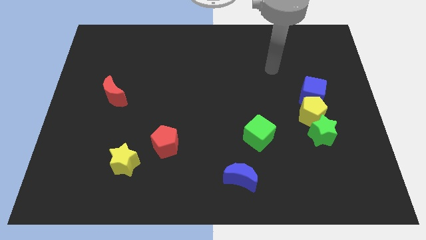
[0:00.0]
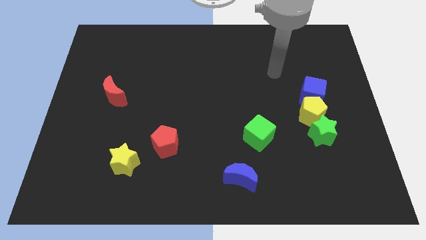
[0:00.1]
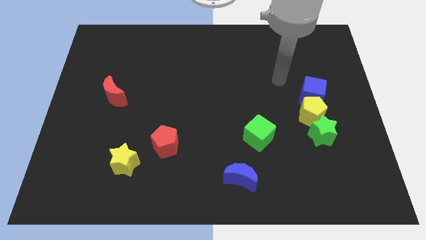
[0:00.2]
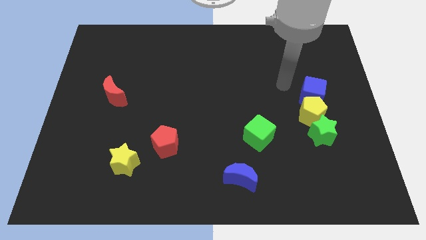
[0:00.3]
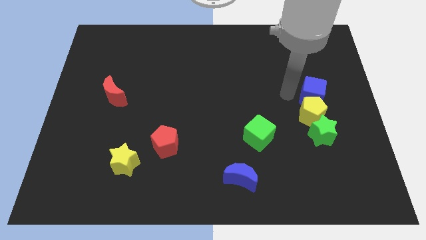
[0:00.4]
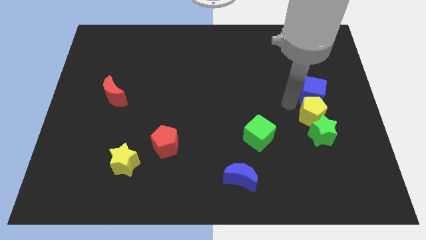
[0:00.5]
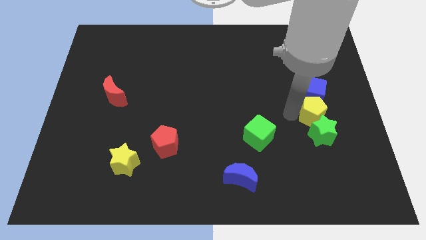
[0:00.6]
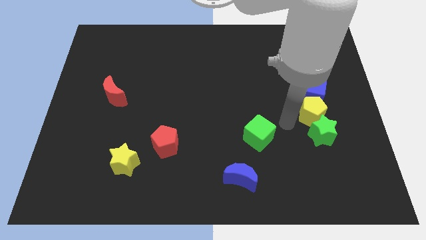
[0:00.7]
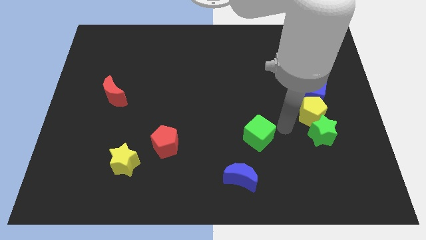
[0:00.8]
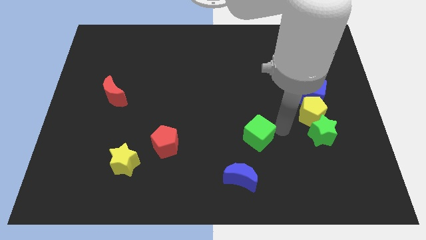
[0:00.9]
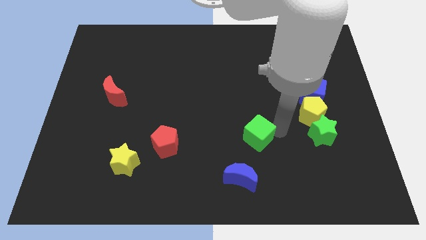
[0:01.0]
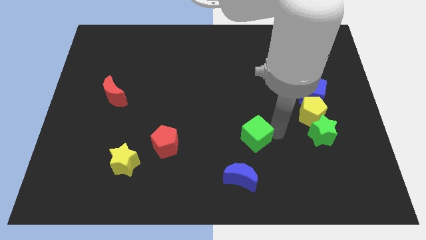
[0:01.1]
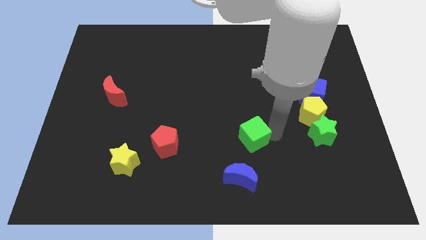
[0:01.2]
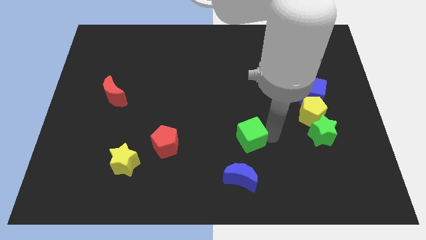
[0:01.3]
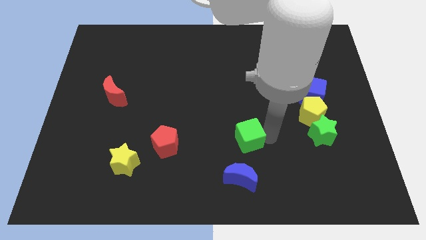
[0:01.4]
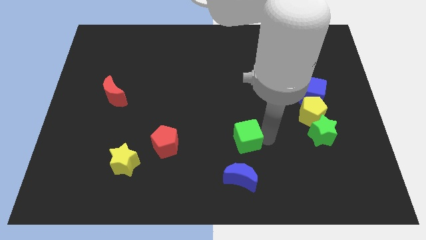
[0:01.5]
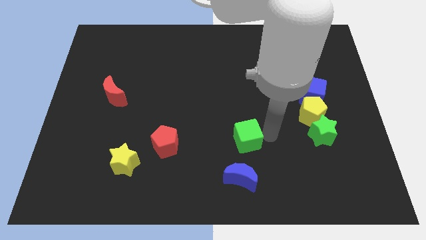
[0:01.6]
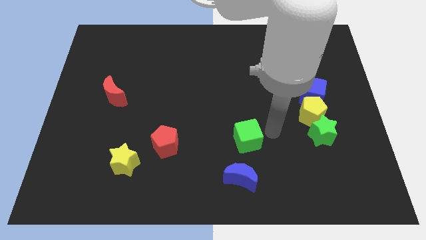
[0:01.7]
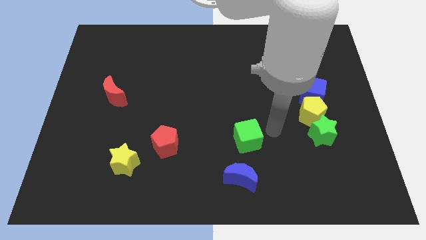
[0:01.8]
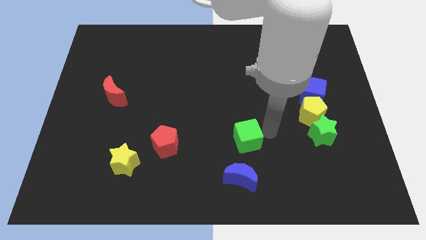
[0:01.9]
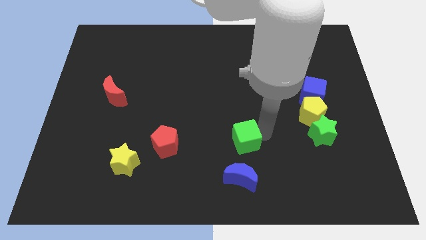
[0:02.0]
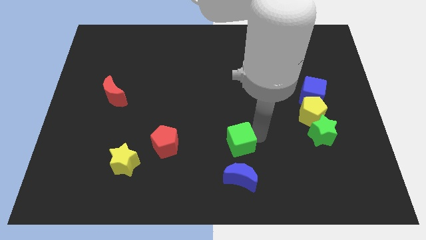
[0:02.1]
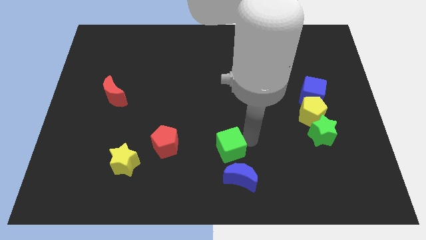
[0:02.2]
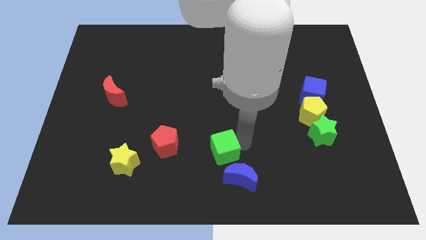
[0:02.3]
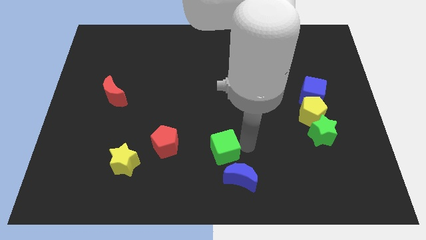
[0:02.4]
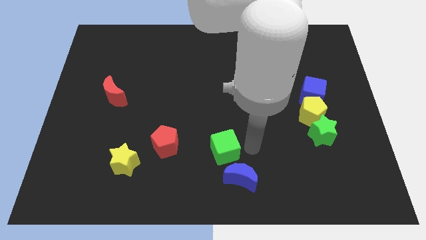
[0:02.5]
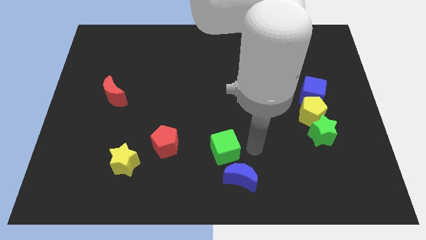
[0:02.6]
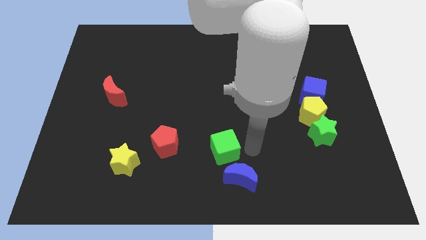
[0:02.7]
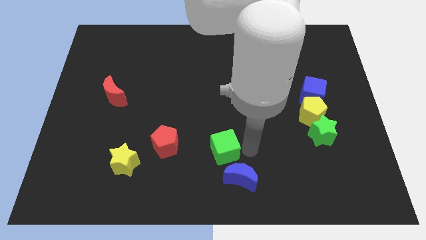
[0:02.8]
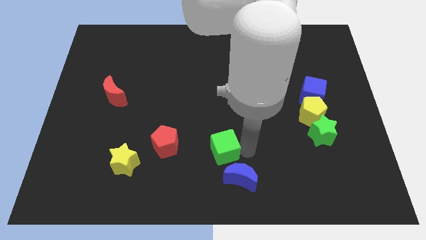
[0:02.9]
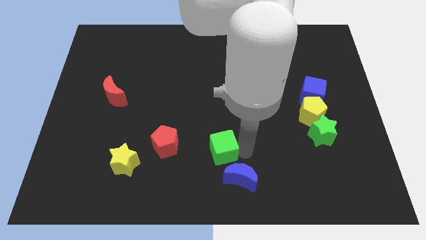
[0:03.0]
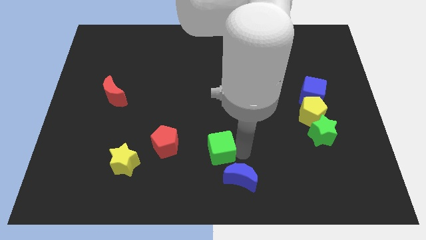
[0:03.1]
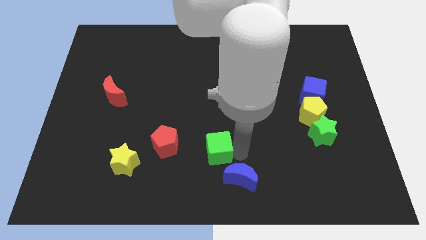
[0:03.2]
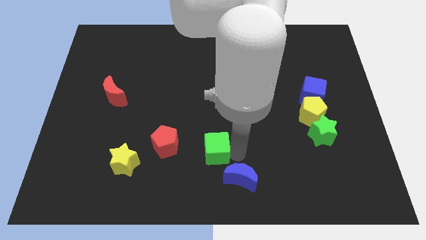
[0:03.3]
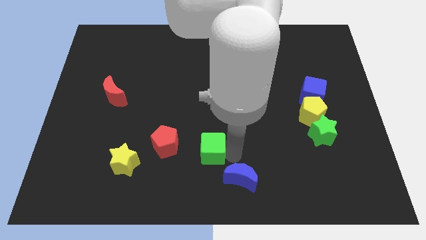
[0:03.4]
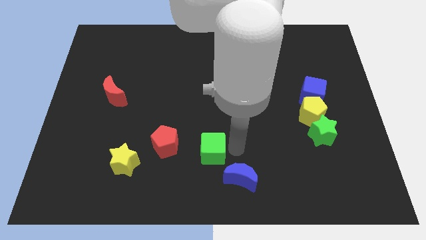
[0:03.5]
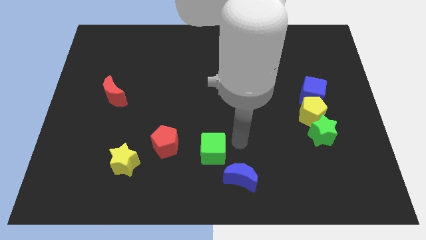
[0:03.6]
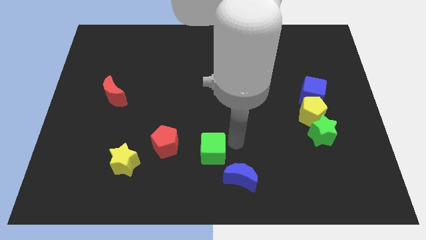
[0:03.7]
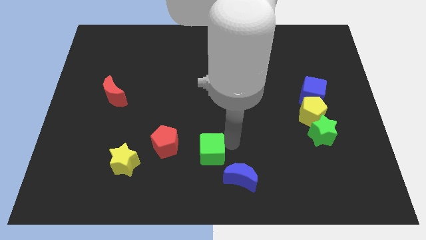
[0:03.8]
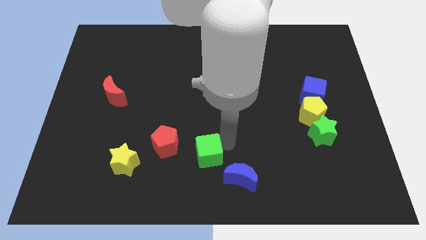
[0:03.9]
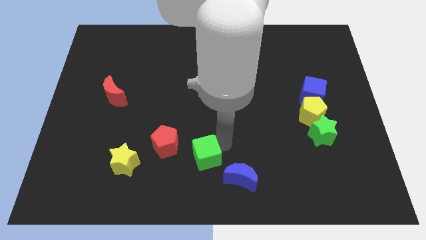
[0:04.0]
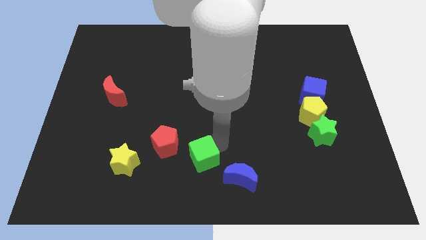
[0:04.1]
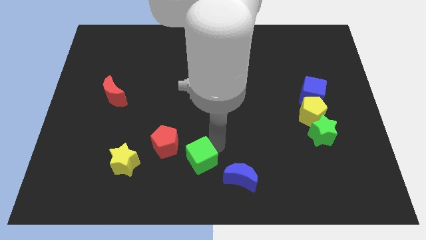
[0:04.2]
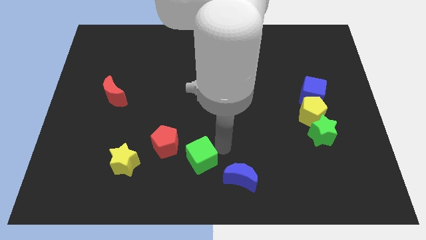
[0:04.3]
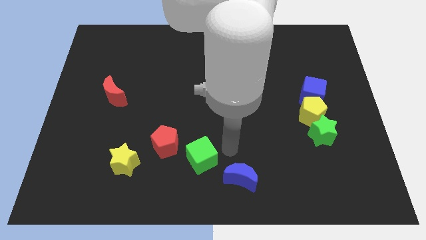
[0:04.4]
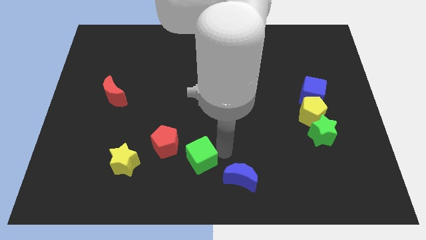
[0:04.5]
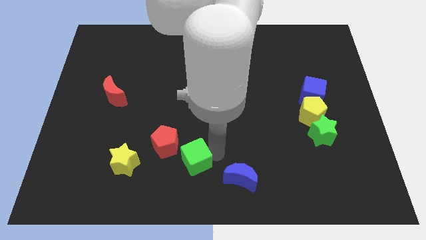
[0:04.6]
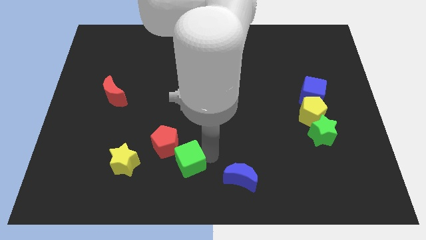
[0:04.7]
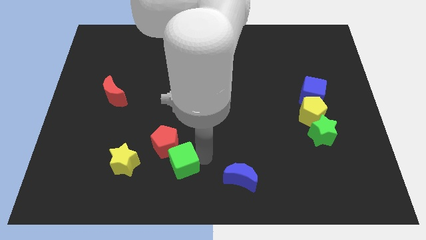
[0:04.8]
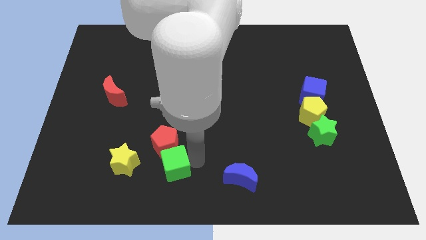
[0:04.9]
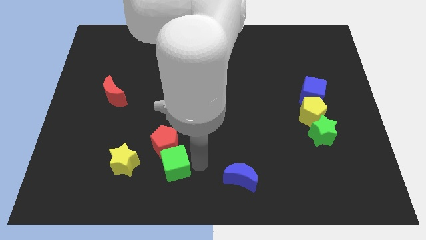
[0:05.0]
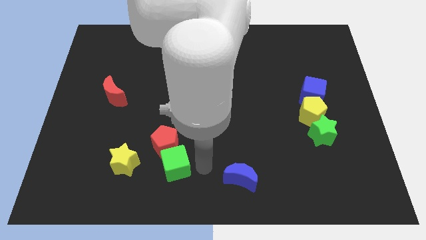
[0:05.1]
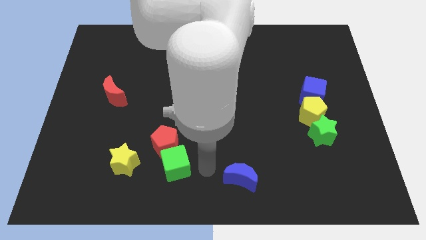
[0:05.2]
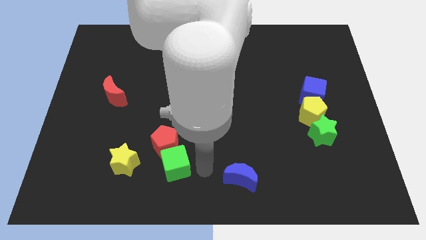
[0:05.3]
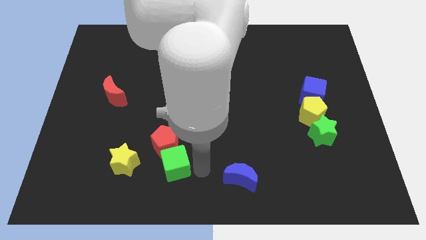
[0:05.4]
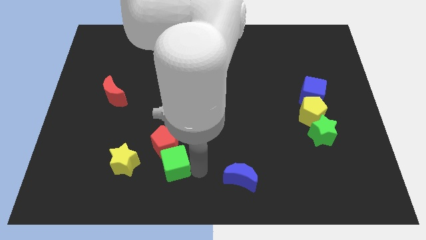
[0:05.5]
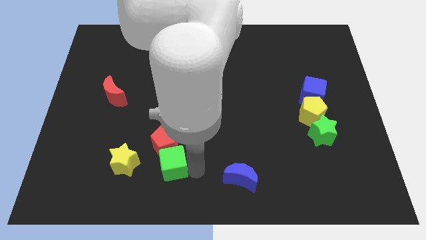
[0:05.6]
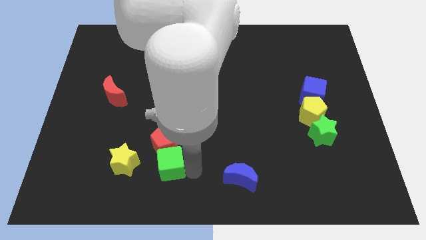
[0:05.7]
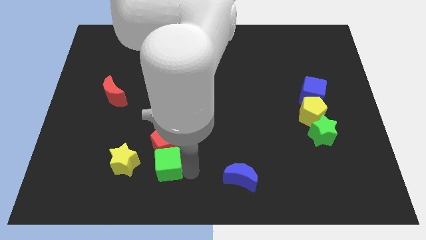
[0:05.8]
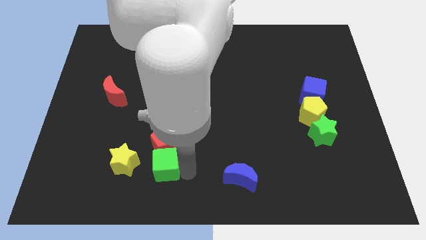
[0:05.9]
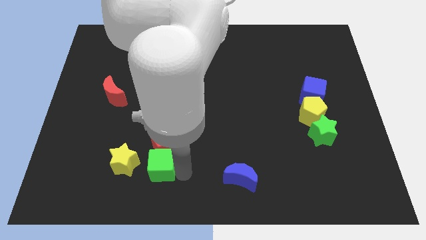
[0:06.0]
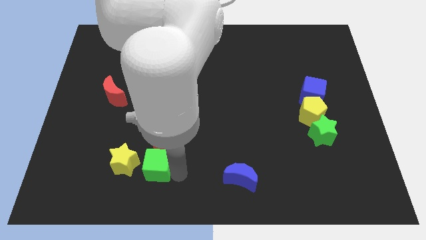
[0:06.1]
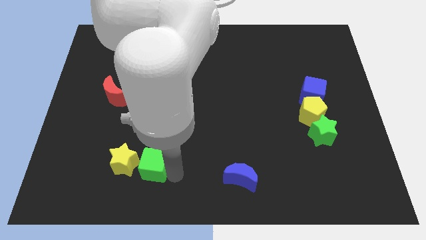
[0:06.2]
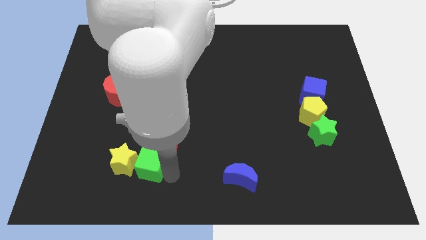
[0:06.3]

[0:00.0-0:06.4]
put the green cube towards the yellow star
